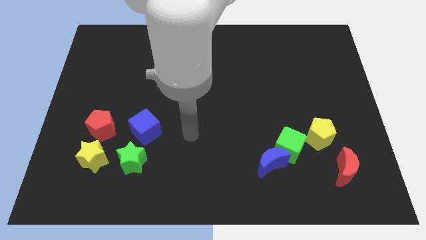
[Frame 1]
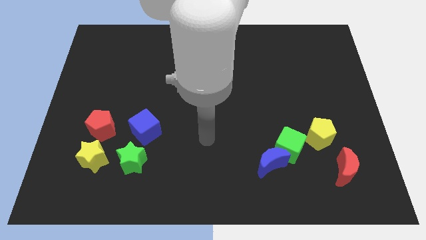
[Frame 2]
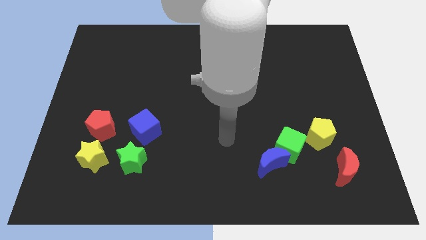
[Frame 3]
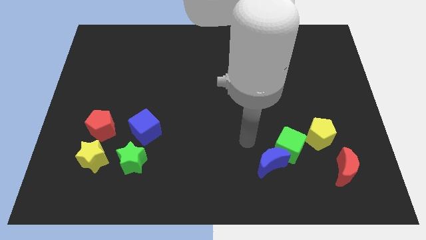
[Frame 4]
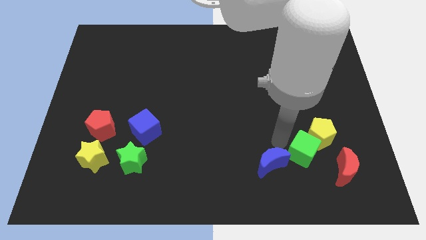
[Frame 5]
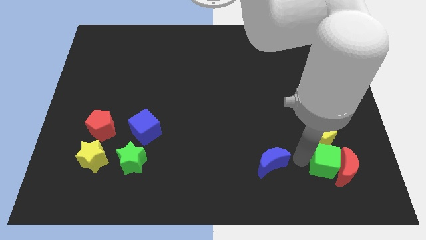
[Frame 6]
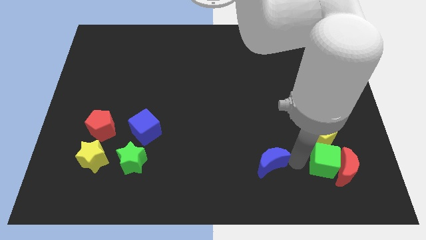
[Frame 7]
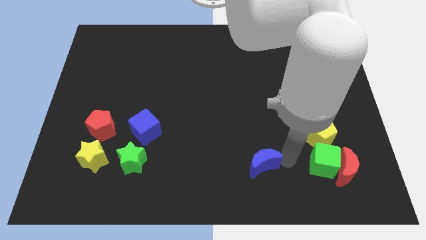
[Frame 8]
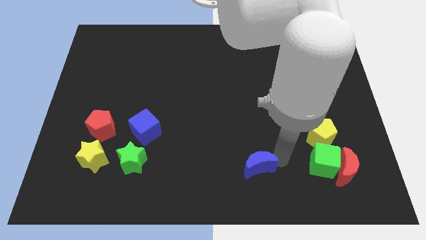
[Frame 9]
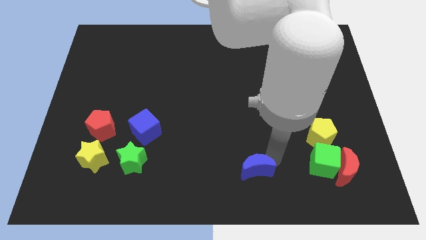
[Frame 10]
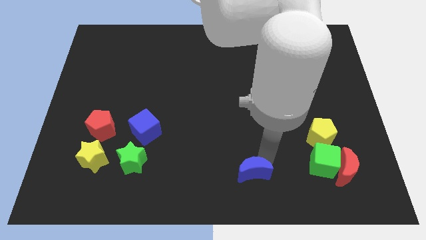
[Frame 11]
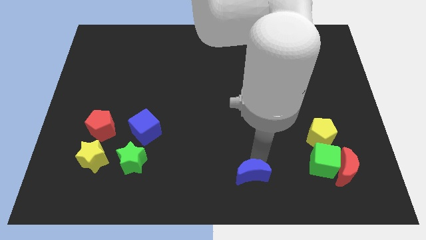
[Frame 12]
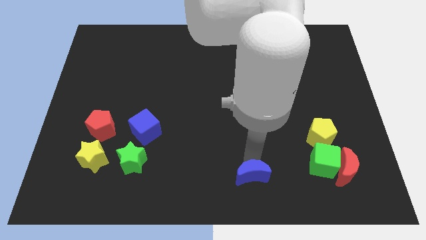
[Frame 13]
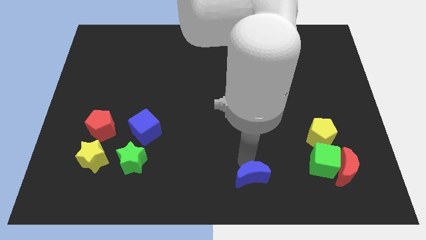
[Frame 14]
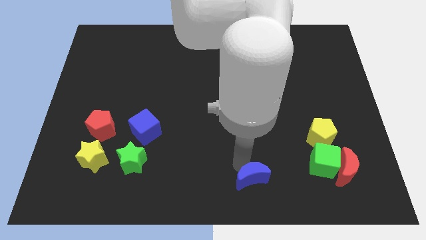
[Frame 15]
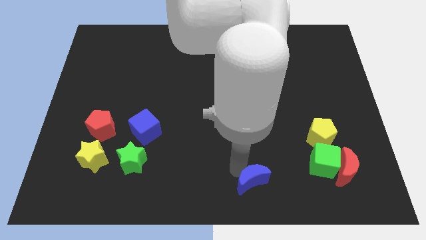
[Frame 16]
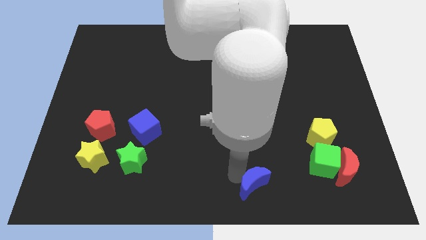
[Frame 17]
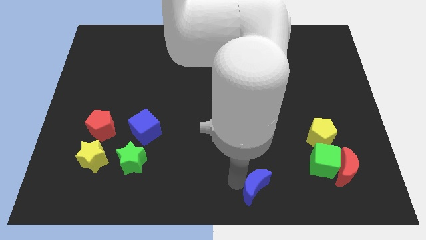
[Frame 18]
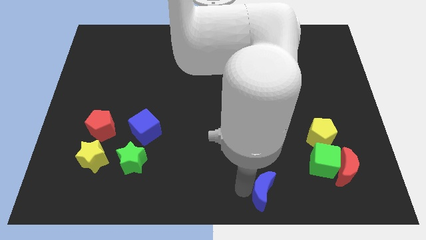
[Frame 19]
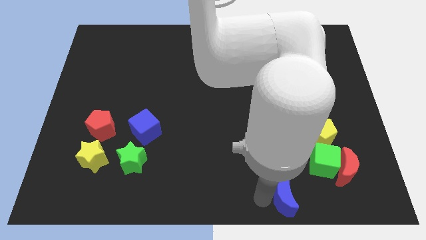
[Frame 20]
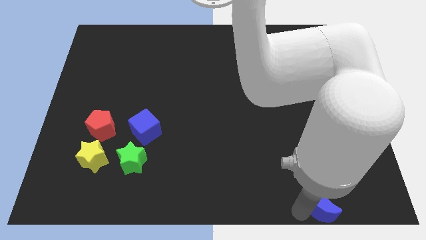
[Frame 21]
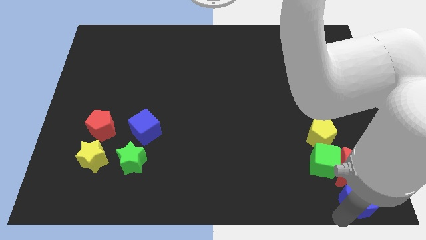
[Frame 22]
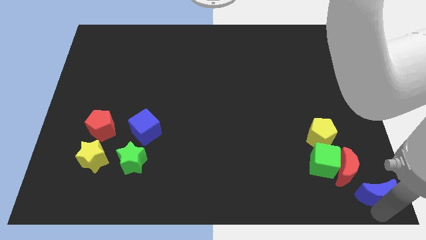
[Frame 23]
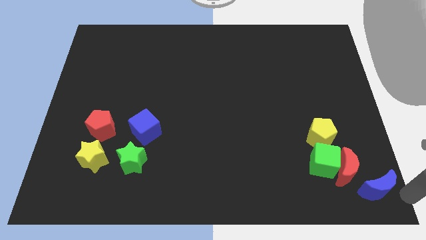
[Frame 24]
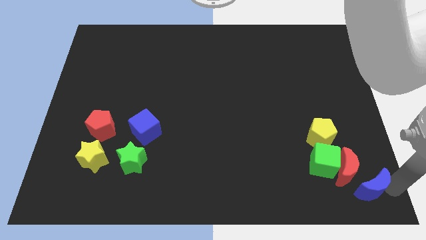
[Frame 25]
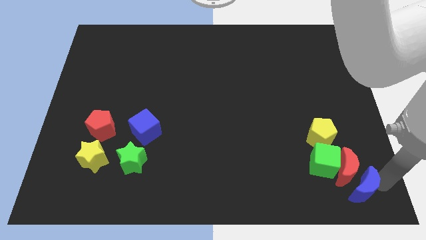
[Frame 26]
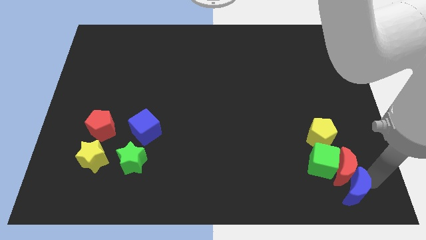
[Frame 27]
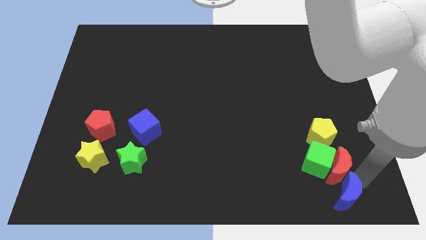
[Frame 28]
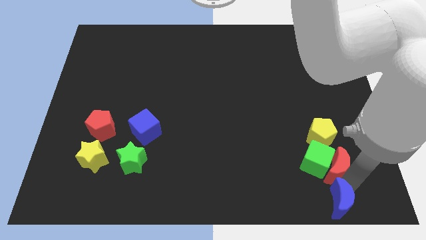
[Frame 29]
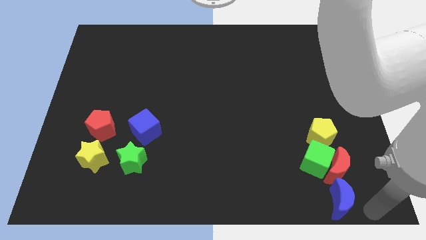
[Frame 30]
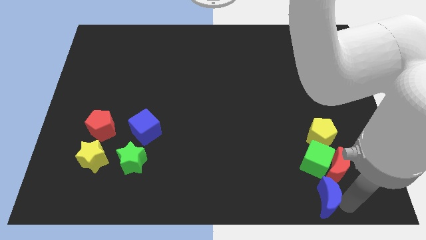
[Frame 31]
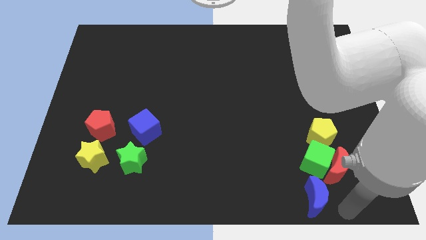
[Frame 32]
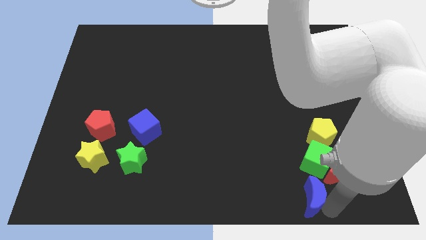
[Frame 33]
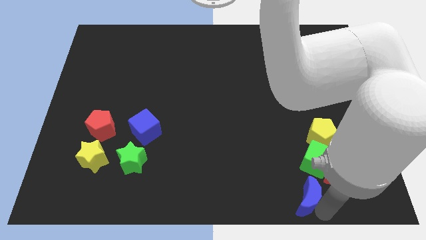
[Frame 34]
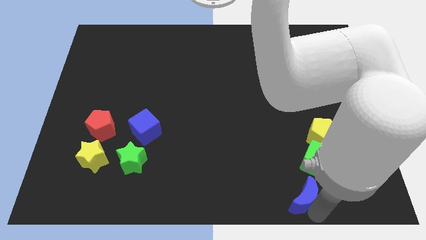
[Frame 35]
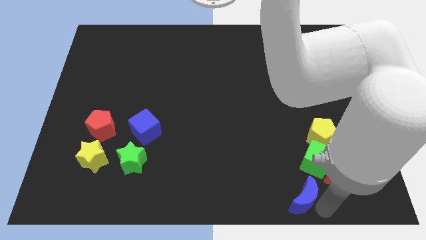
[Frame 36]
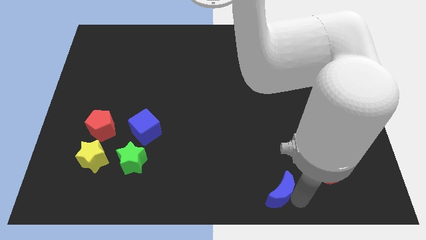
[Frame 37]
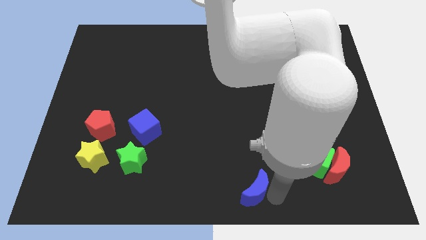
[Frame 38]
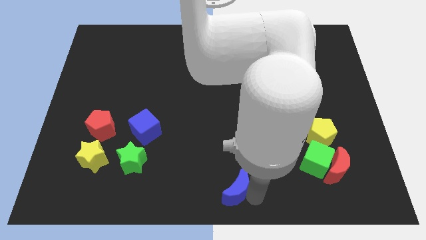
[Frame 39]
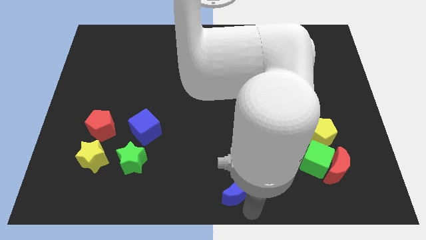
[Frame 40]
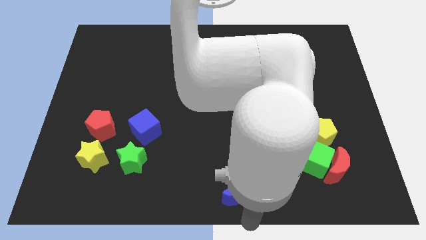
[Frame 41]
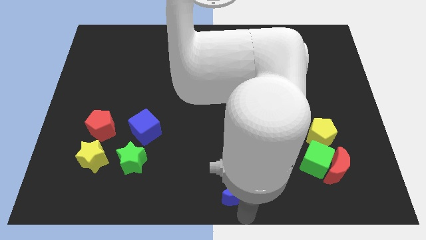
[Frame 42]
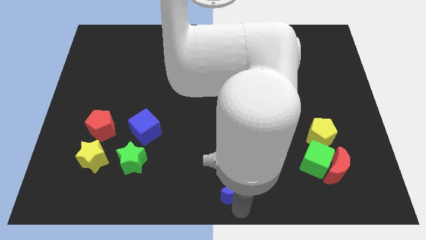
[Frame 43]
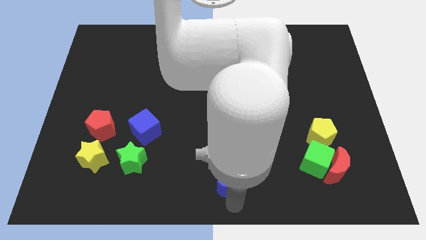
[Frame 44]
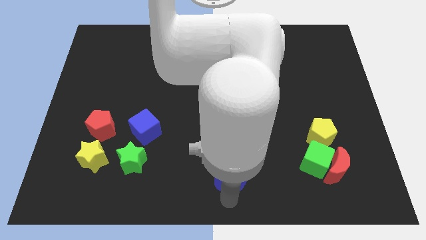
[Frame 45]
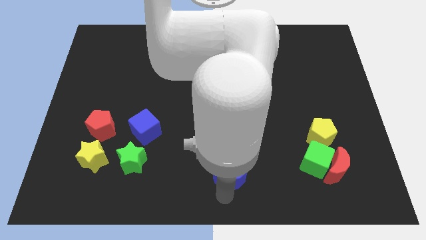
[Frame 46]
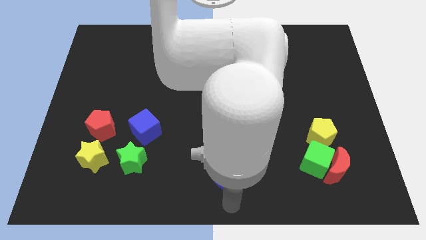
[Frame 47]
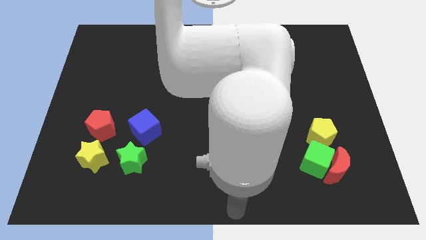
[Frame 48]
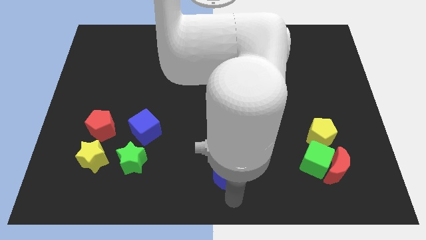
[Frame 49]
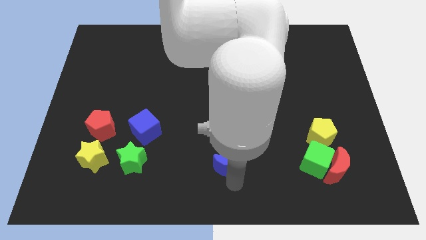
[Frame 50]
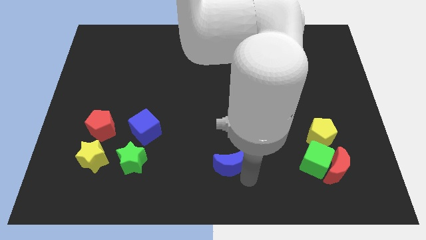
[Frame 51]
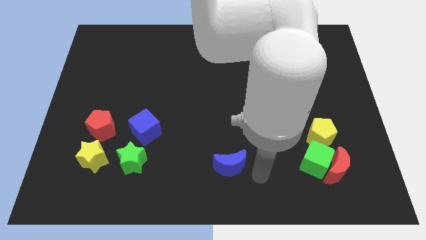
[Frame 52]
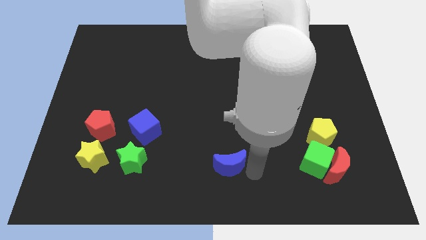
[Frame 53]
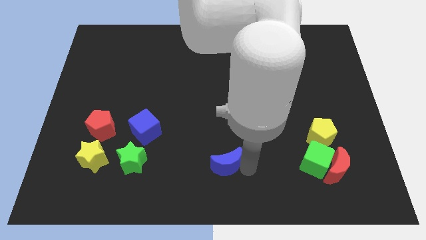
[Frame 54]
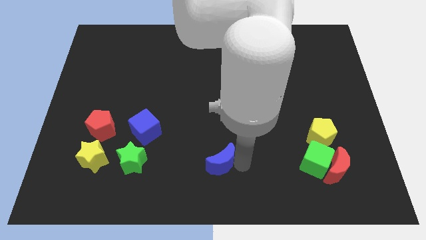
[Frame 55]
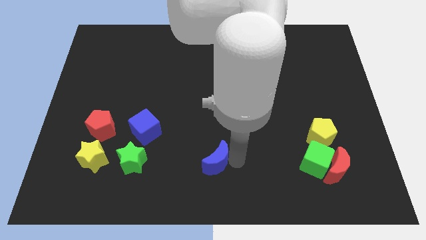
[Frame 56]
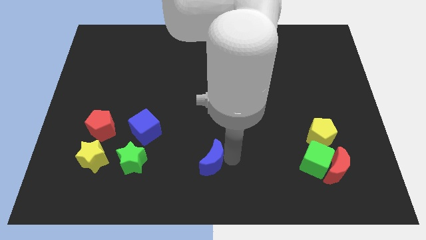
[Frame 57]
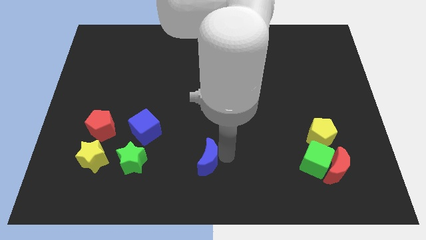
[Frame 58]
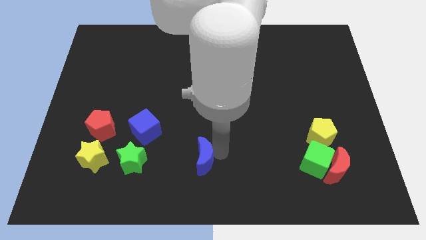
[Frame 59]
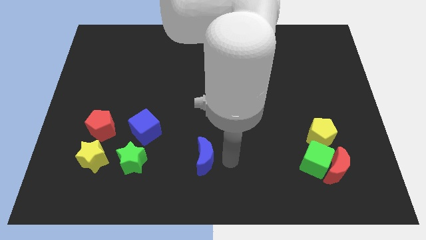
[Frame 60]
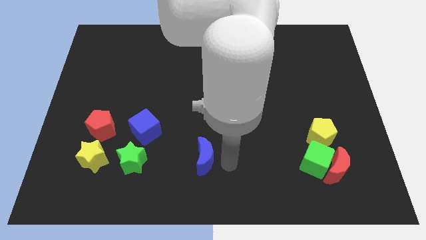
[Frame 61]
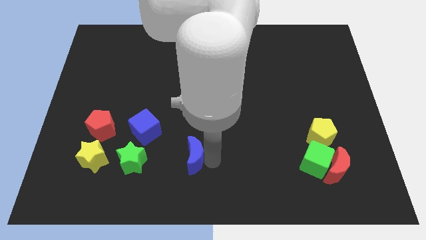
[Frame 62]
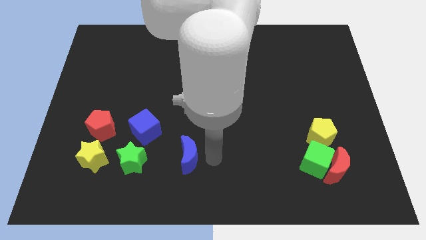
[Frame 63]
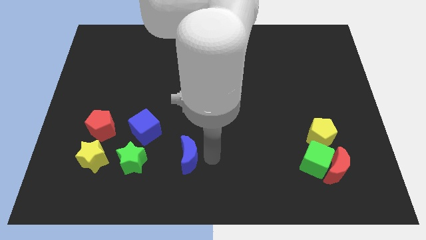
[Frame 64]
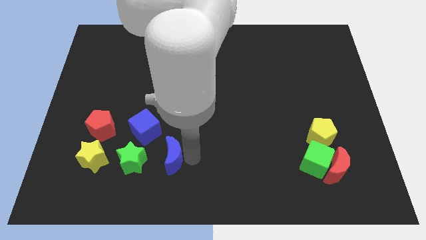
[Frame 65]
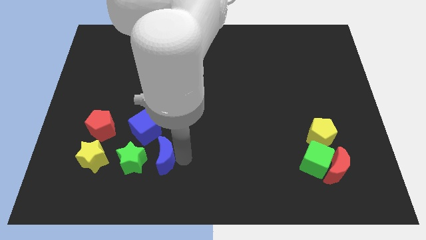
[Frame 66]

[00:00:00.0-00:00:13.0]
slide the blue moon to the right side of the yellow star

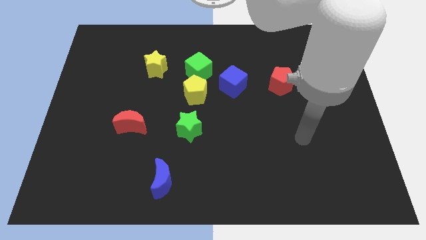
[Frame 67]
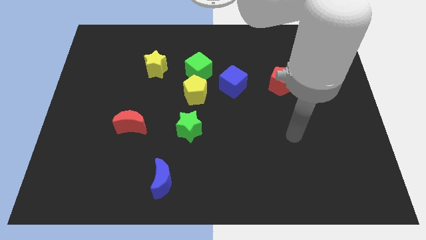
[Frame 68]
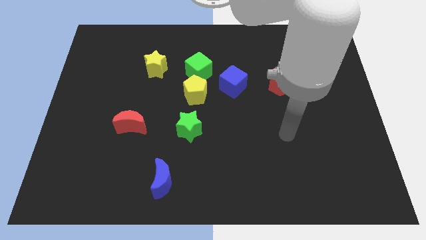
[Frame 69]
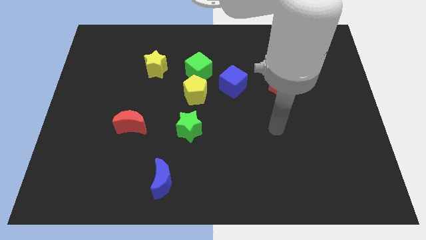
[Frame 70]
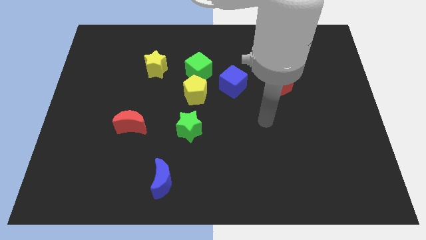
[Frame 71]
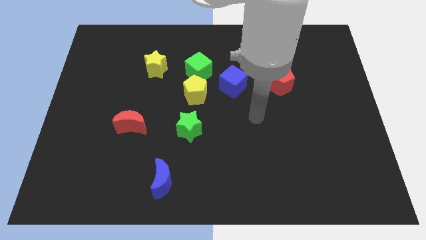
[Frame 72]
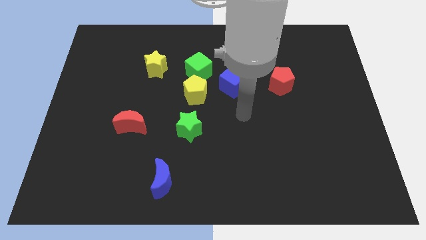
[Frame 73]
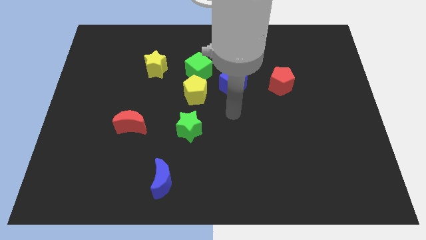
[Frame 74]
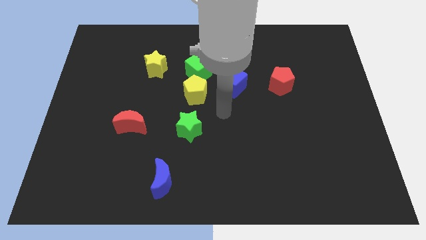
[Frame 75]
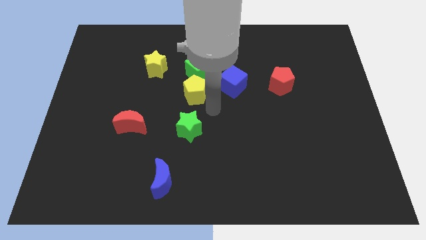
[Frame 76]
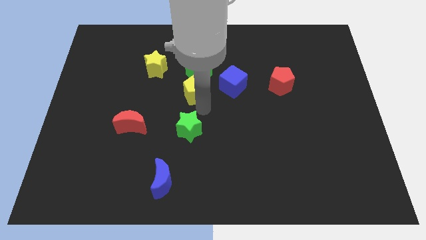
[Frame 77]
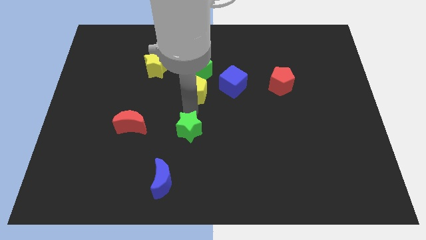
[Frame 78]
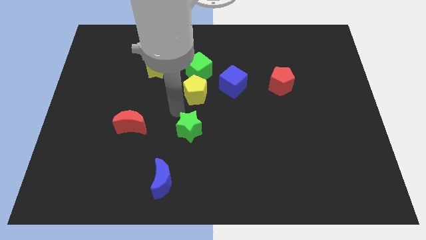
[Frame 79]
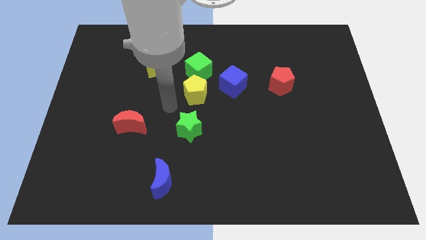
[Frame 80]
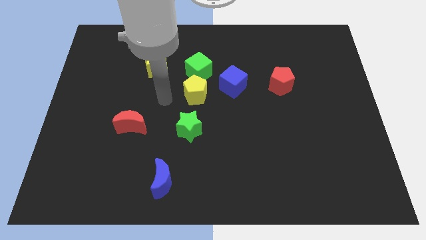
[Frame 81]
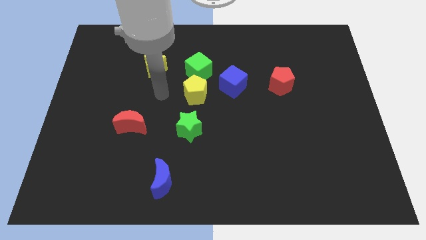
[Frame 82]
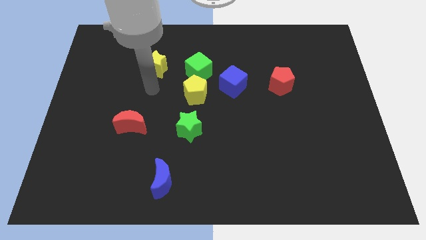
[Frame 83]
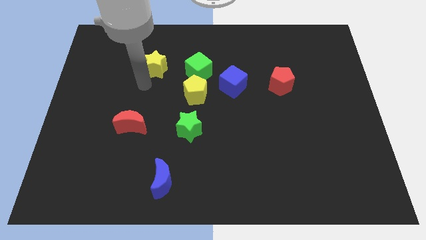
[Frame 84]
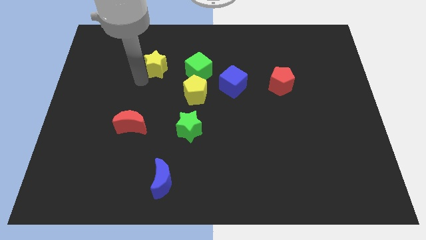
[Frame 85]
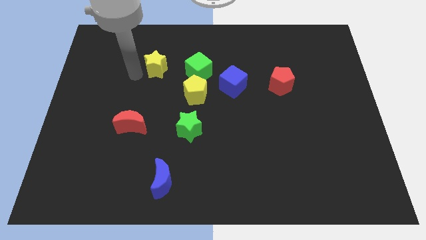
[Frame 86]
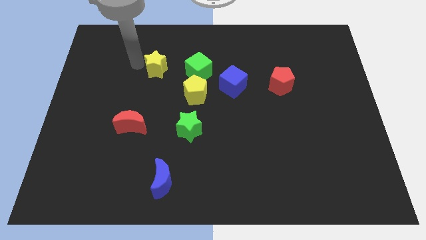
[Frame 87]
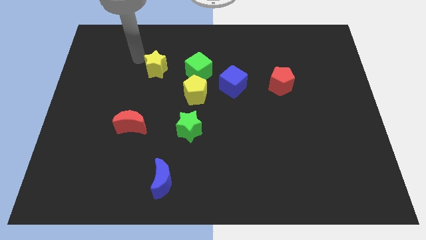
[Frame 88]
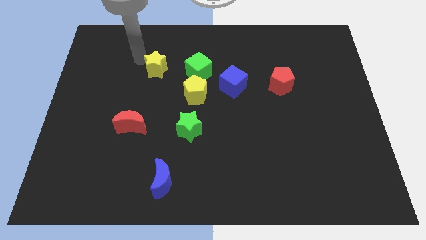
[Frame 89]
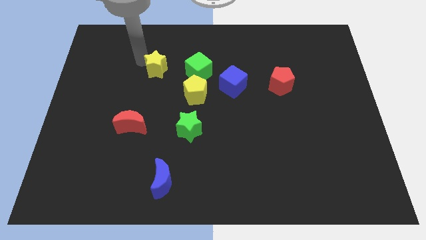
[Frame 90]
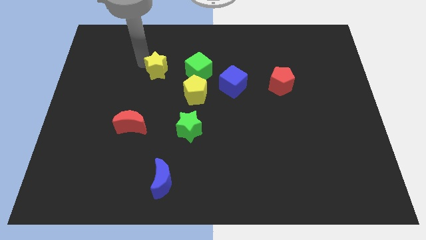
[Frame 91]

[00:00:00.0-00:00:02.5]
put the yellow star to the top left of the yellow pentagon
